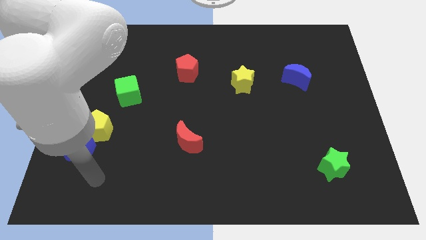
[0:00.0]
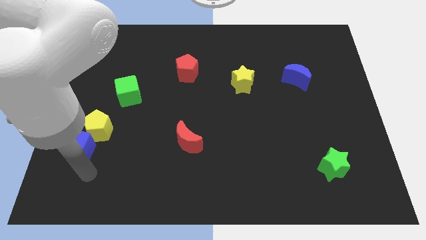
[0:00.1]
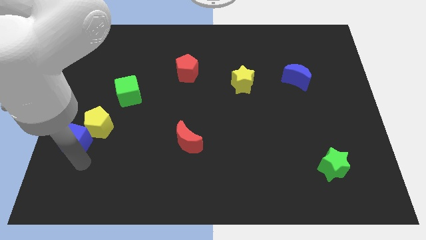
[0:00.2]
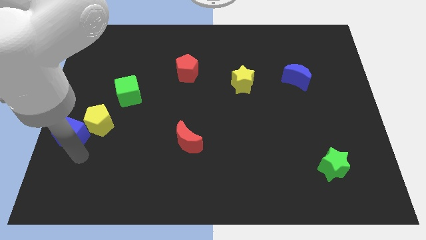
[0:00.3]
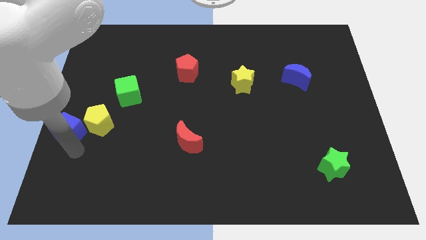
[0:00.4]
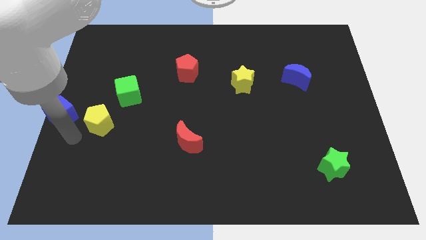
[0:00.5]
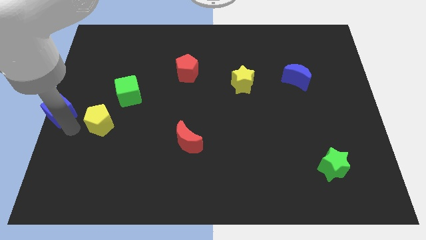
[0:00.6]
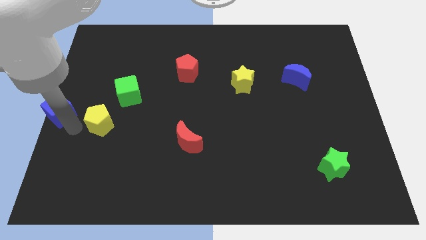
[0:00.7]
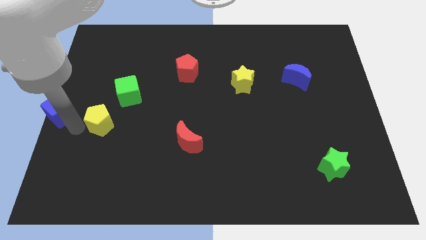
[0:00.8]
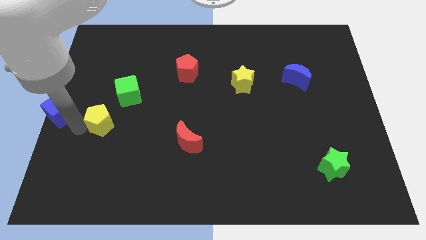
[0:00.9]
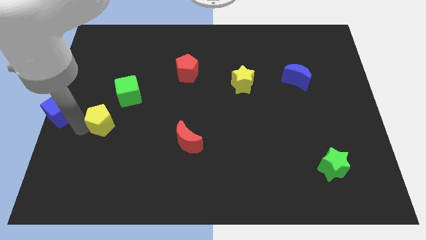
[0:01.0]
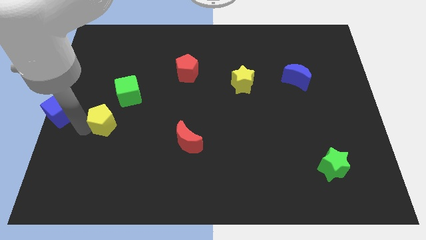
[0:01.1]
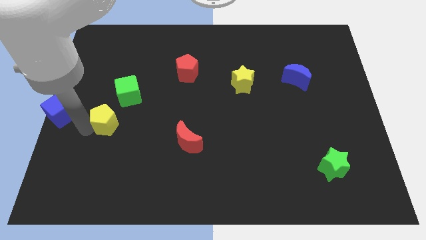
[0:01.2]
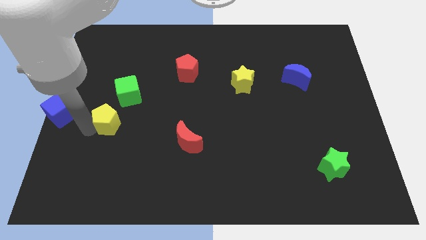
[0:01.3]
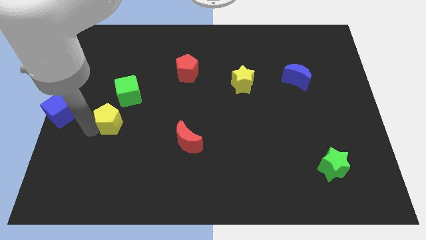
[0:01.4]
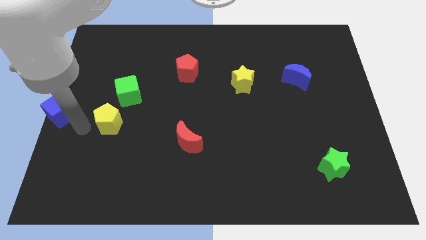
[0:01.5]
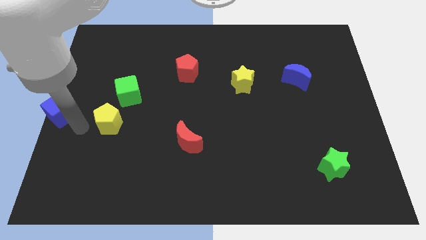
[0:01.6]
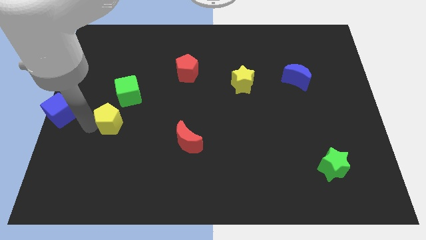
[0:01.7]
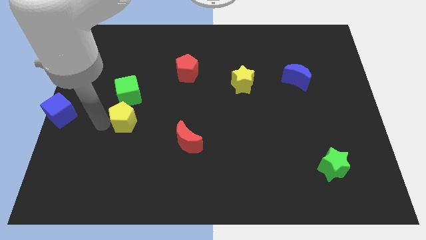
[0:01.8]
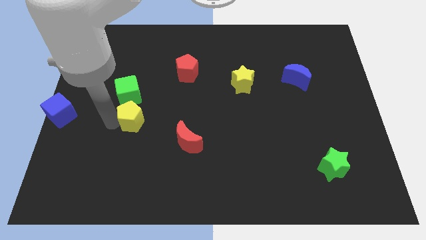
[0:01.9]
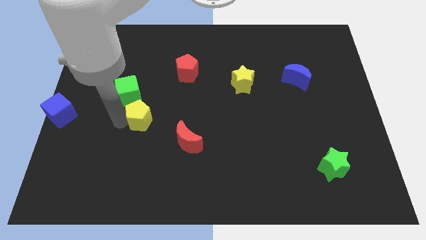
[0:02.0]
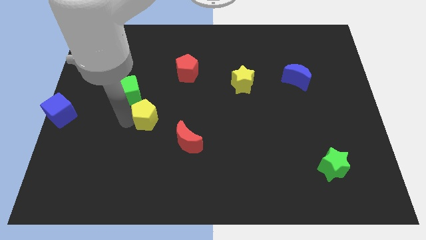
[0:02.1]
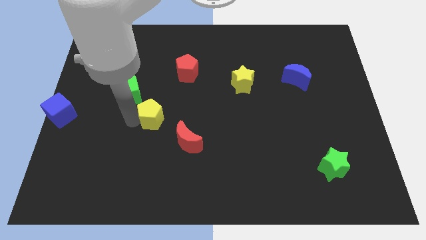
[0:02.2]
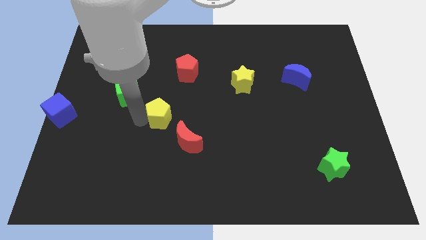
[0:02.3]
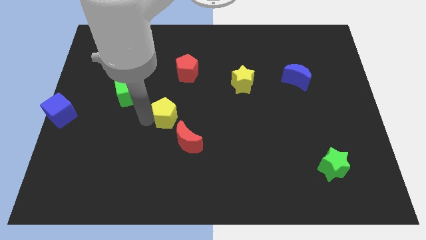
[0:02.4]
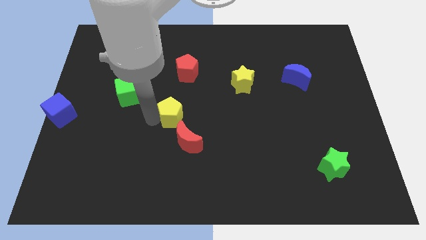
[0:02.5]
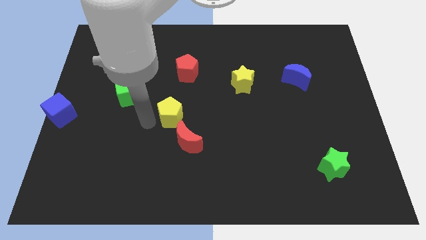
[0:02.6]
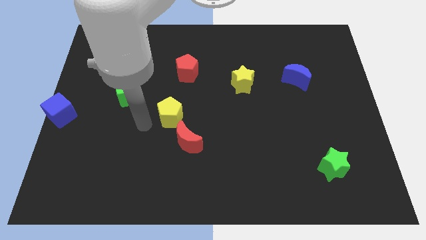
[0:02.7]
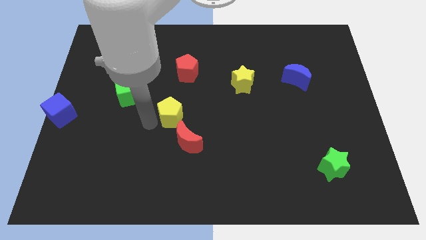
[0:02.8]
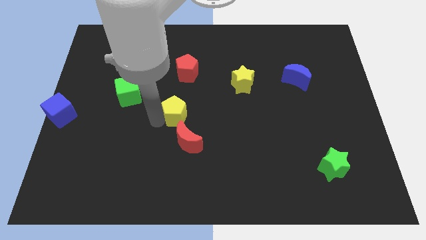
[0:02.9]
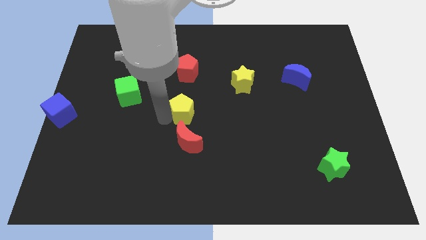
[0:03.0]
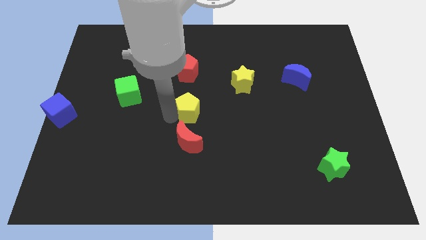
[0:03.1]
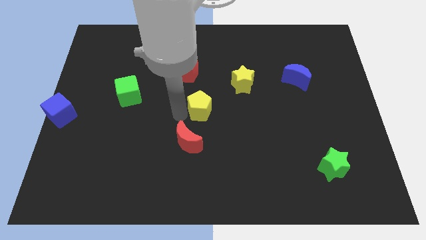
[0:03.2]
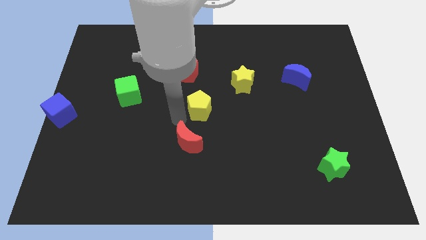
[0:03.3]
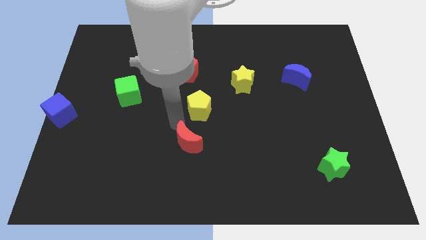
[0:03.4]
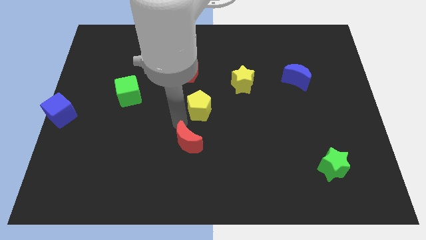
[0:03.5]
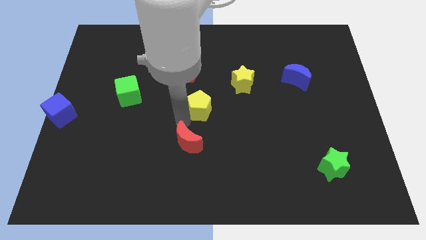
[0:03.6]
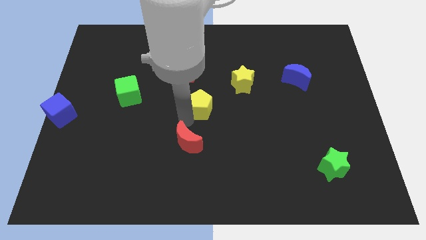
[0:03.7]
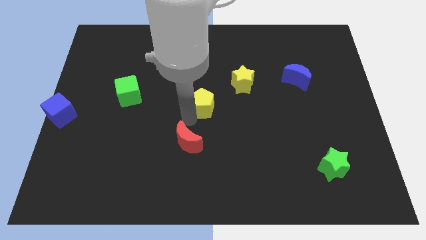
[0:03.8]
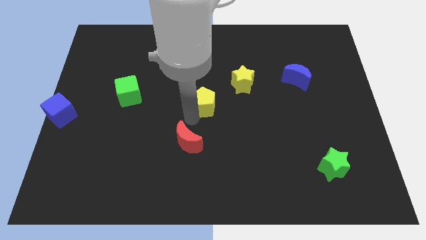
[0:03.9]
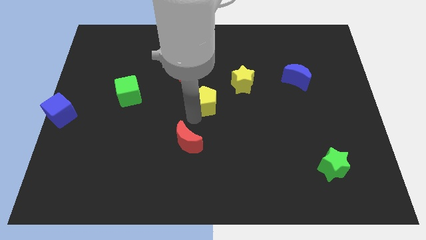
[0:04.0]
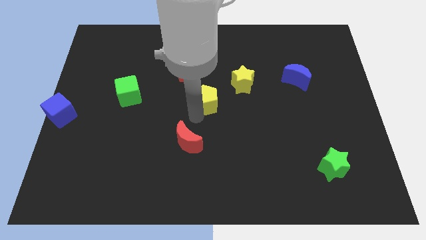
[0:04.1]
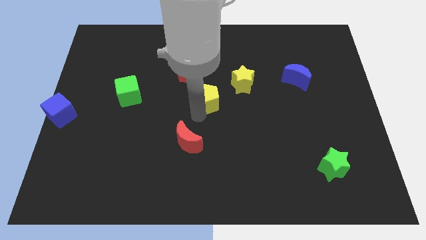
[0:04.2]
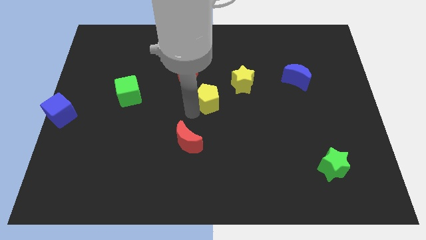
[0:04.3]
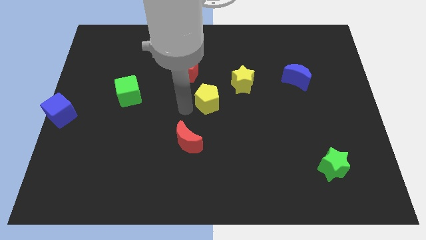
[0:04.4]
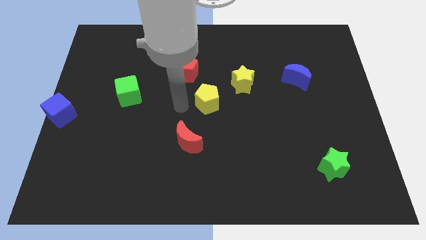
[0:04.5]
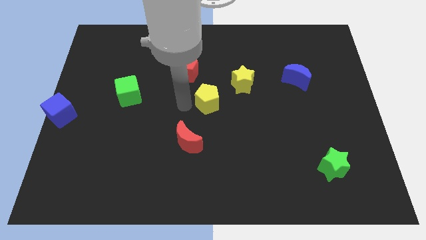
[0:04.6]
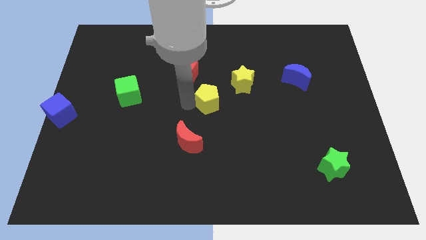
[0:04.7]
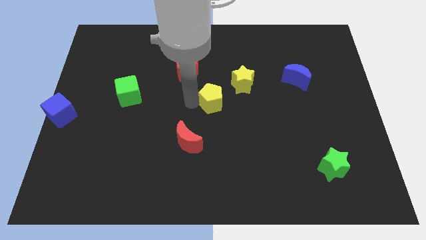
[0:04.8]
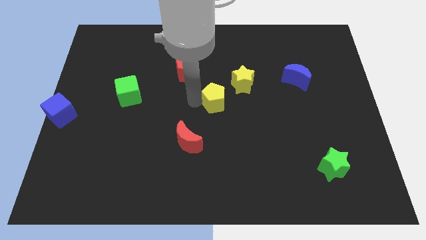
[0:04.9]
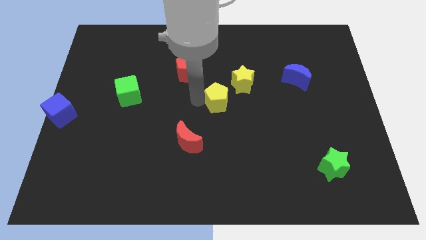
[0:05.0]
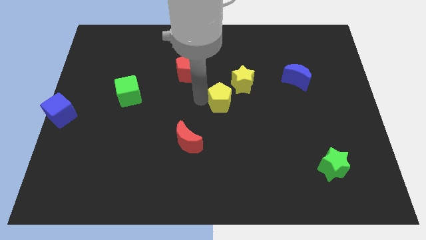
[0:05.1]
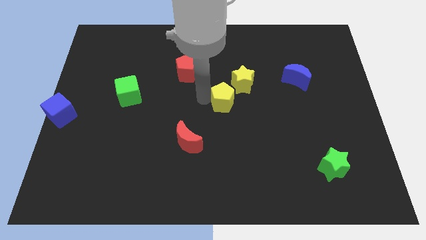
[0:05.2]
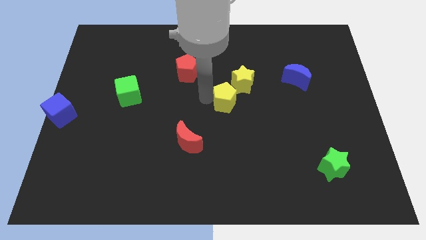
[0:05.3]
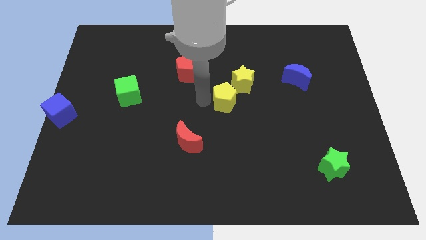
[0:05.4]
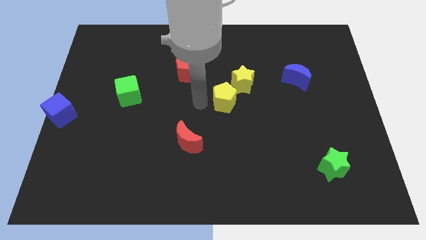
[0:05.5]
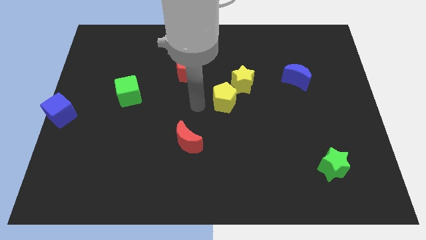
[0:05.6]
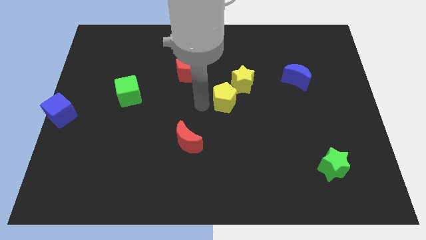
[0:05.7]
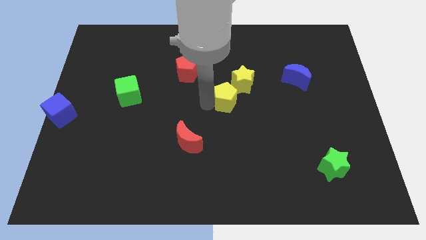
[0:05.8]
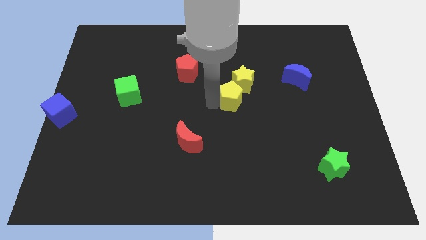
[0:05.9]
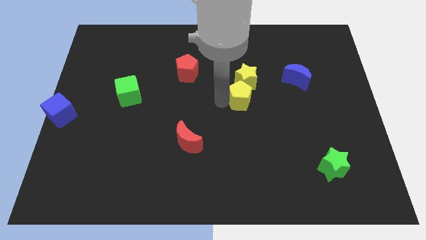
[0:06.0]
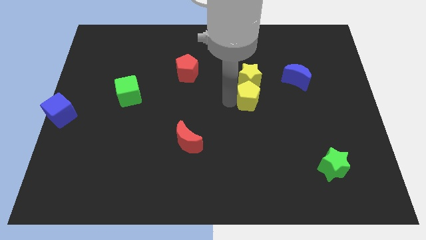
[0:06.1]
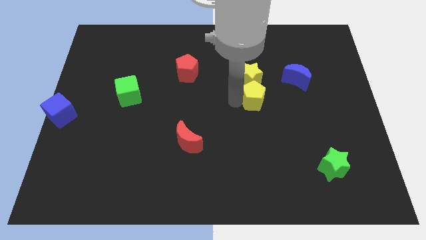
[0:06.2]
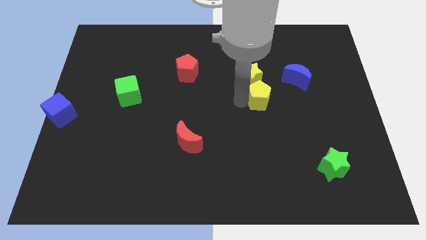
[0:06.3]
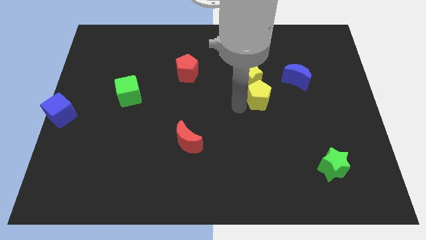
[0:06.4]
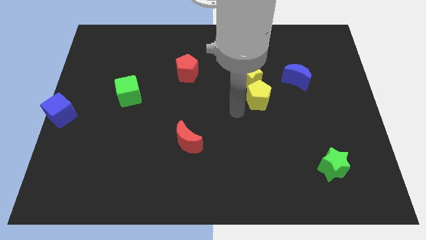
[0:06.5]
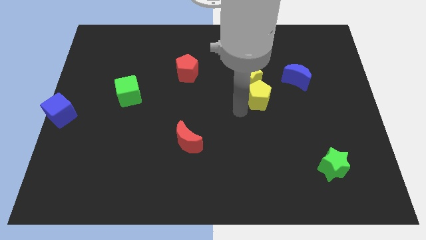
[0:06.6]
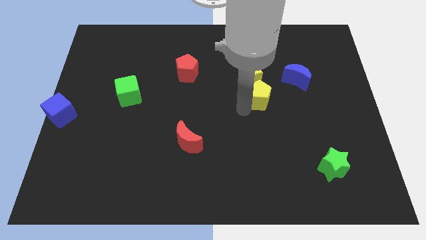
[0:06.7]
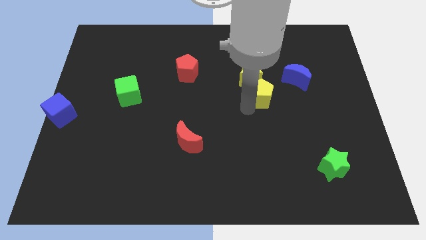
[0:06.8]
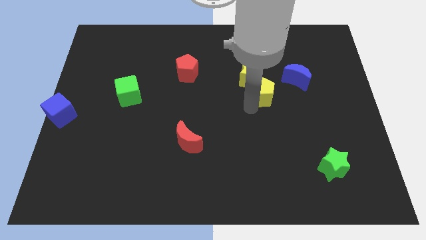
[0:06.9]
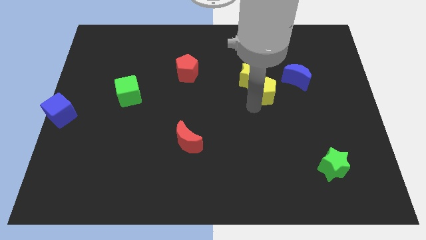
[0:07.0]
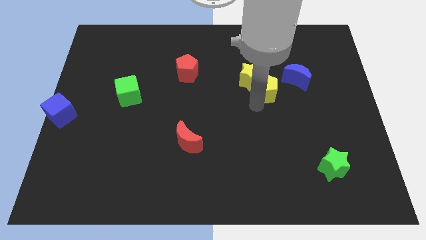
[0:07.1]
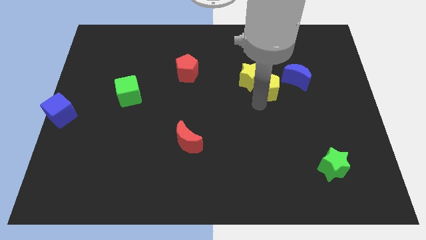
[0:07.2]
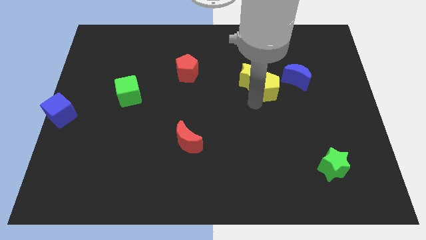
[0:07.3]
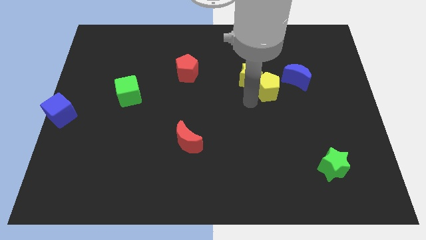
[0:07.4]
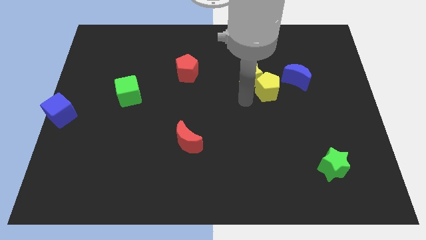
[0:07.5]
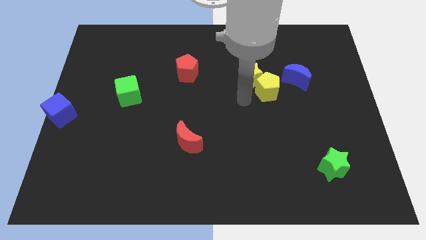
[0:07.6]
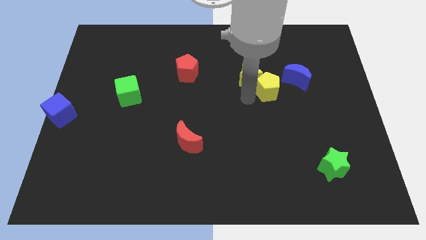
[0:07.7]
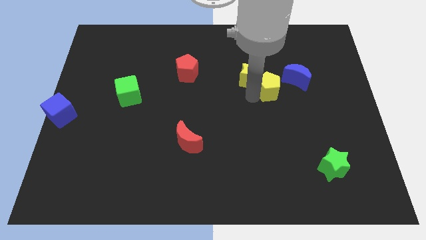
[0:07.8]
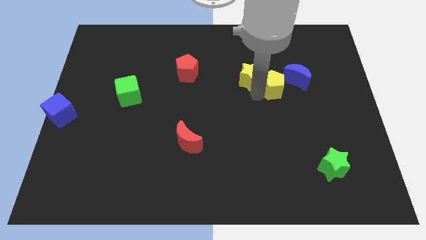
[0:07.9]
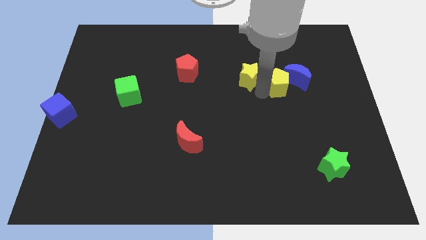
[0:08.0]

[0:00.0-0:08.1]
slide the yellow pentagon close to the blue moon
